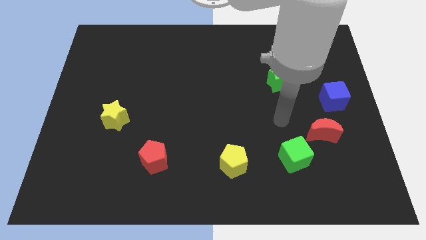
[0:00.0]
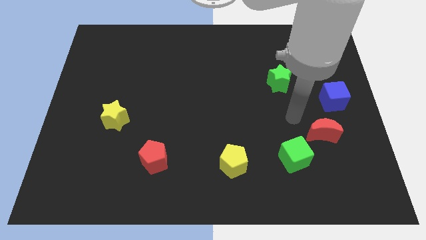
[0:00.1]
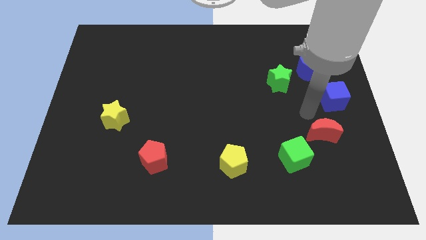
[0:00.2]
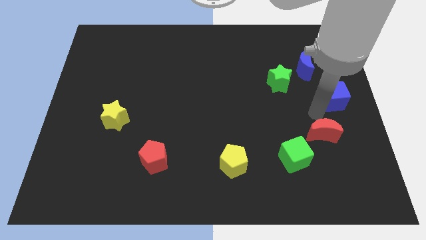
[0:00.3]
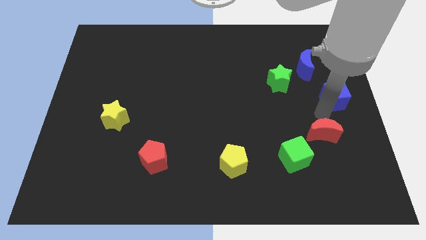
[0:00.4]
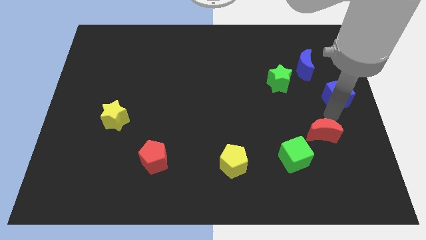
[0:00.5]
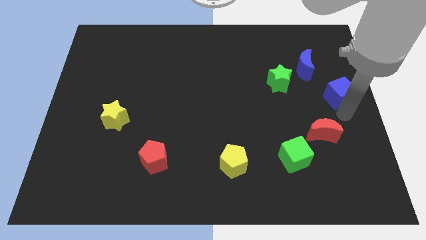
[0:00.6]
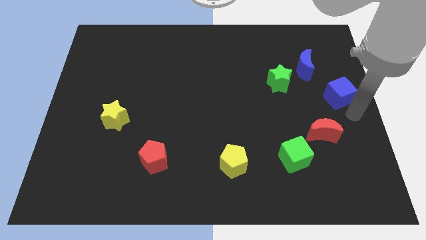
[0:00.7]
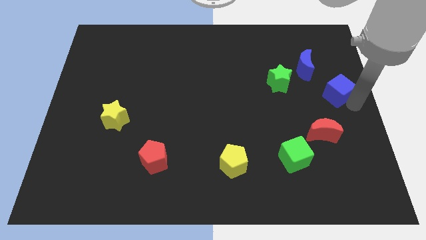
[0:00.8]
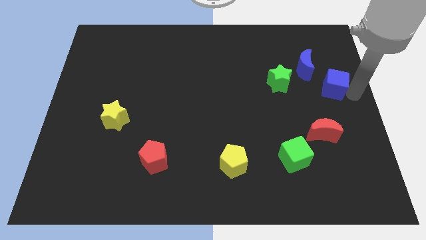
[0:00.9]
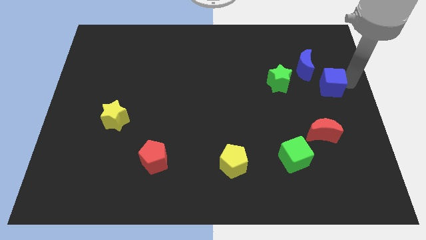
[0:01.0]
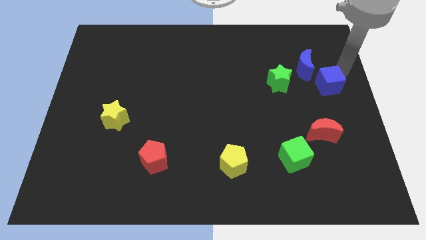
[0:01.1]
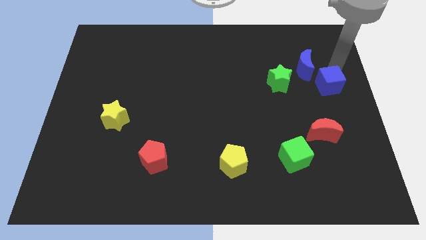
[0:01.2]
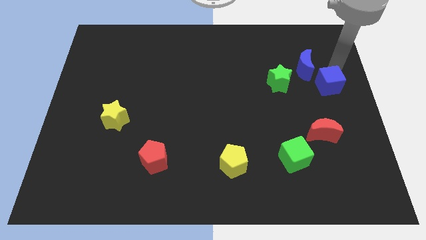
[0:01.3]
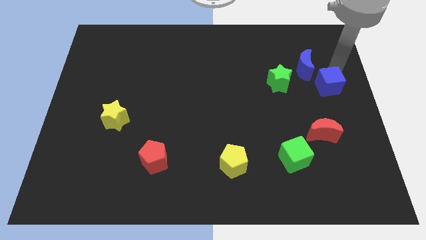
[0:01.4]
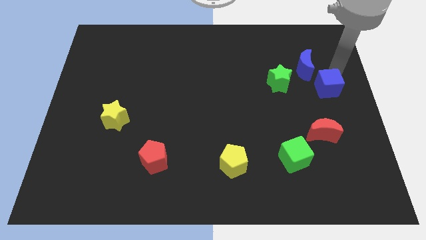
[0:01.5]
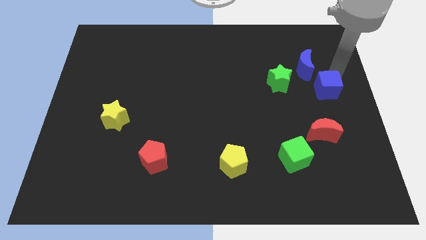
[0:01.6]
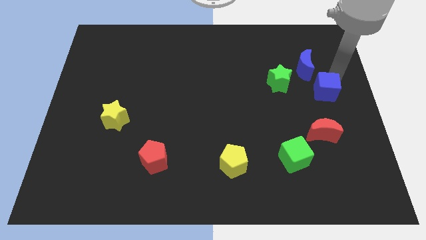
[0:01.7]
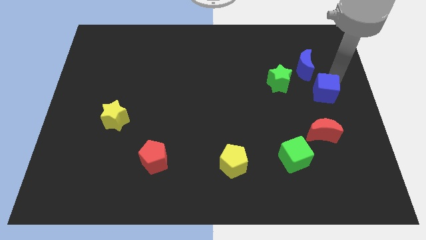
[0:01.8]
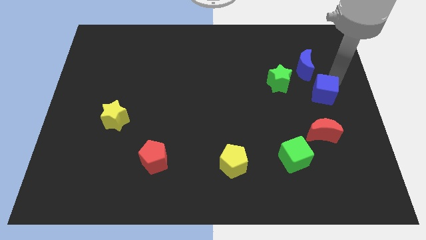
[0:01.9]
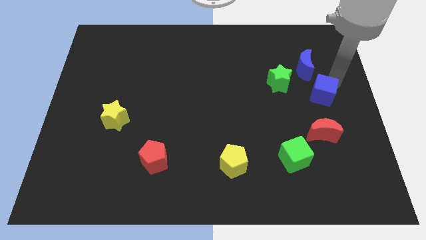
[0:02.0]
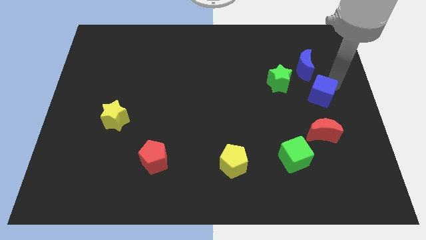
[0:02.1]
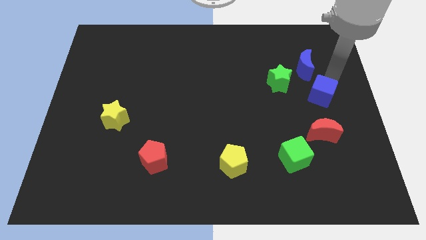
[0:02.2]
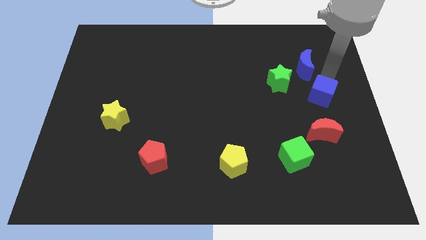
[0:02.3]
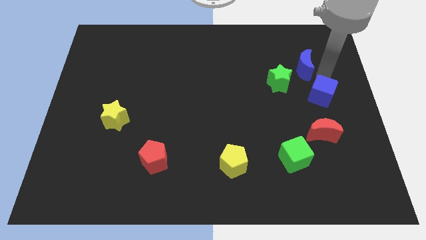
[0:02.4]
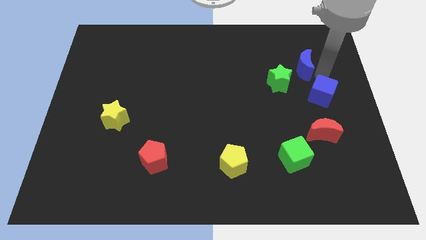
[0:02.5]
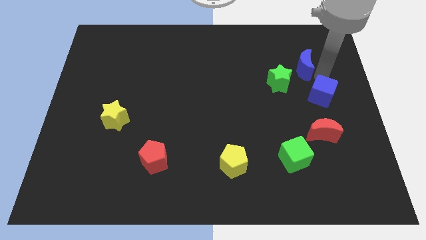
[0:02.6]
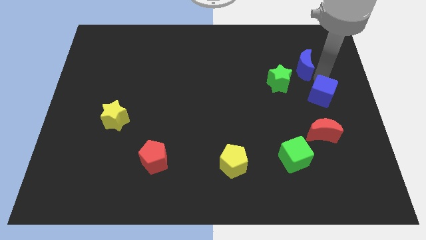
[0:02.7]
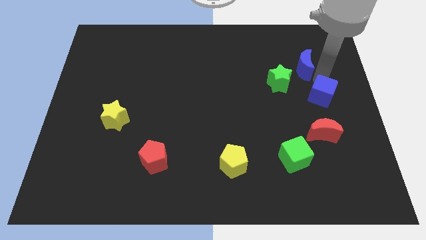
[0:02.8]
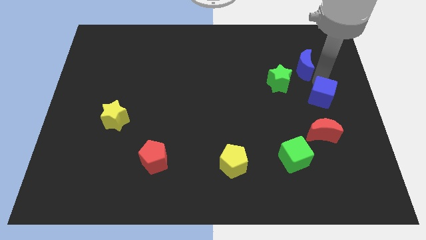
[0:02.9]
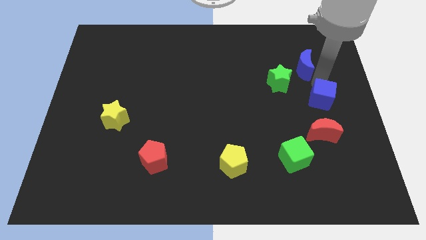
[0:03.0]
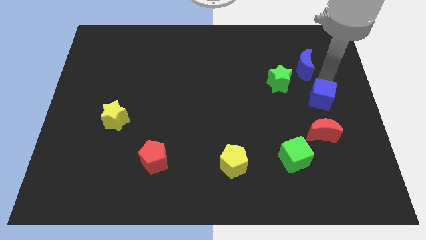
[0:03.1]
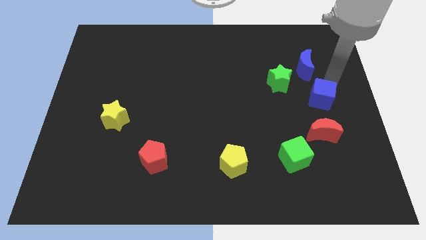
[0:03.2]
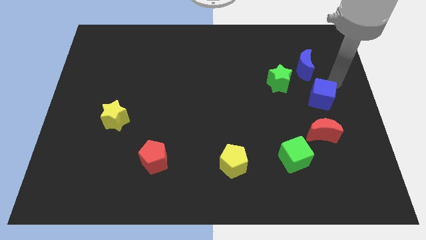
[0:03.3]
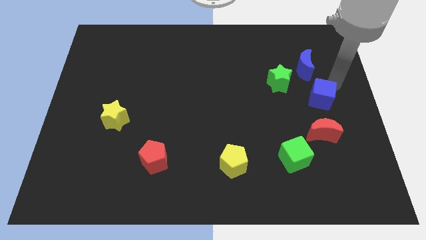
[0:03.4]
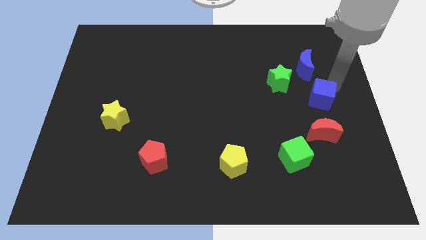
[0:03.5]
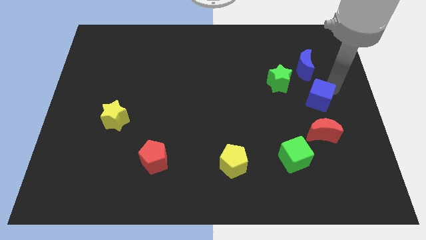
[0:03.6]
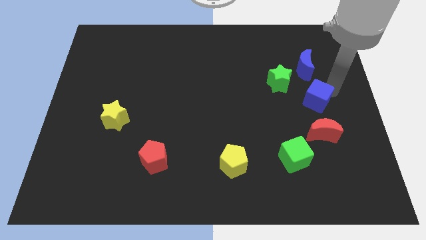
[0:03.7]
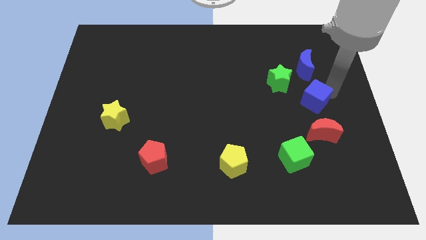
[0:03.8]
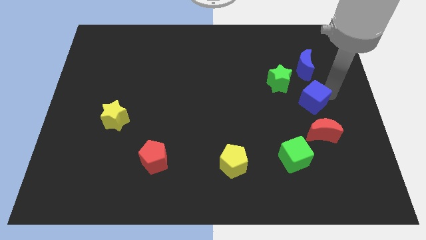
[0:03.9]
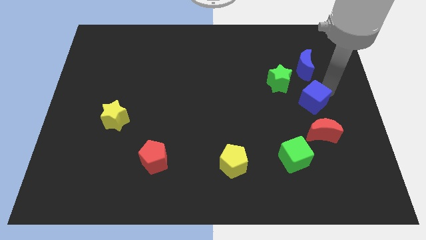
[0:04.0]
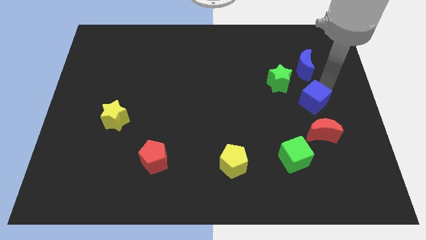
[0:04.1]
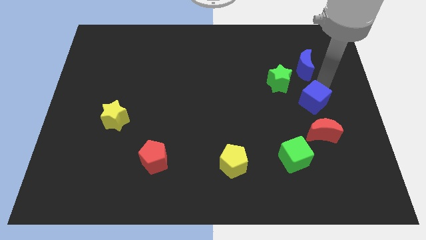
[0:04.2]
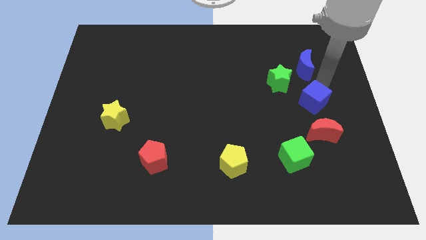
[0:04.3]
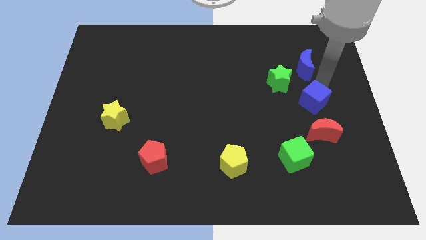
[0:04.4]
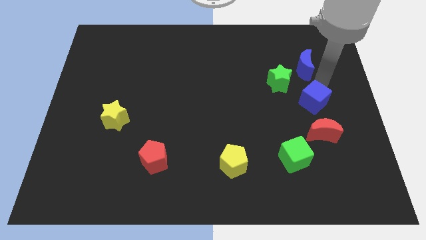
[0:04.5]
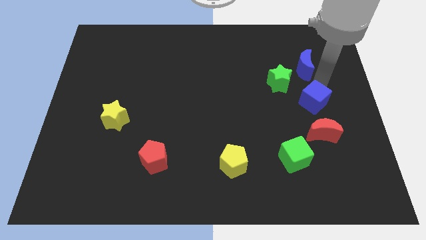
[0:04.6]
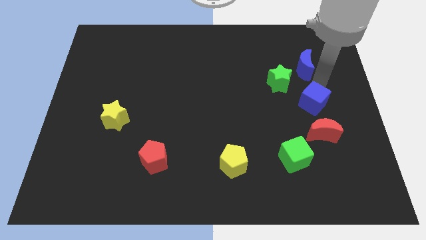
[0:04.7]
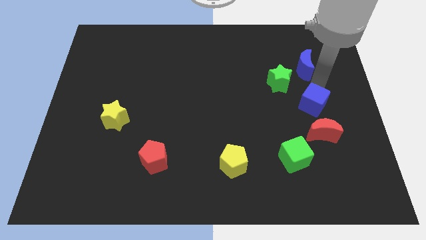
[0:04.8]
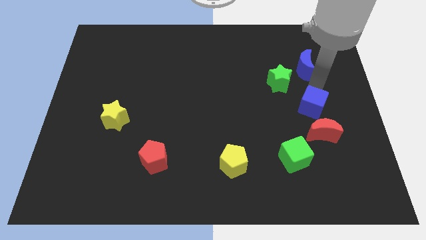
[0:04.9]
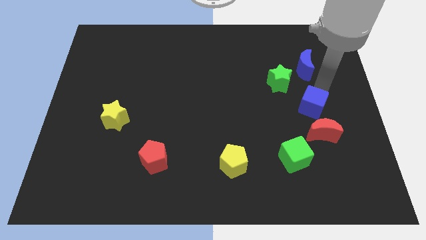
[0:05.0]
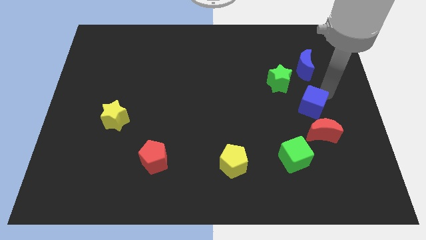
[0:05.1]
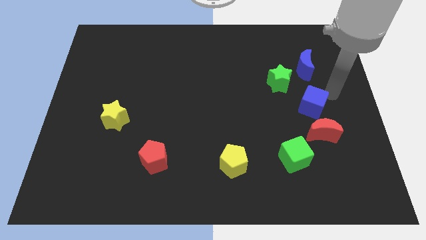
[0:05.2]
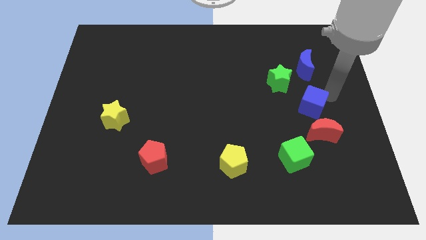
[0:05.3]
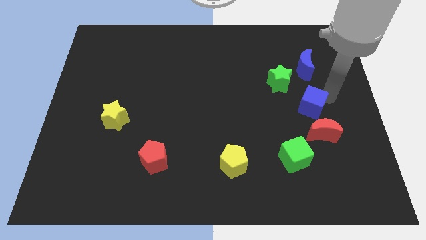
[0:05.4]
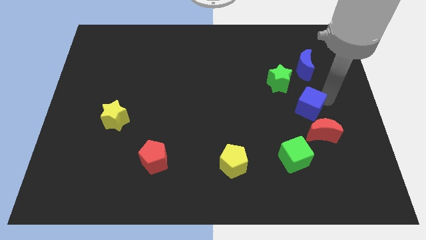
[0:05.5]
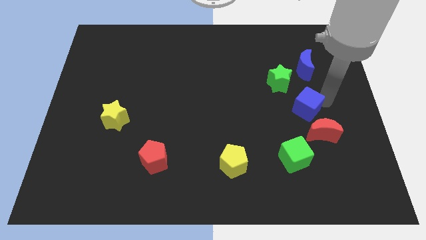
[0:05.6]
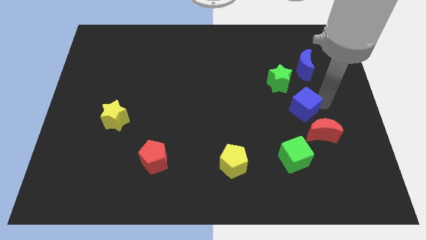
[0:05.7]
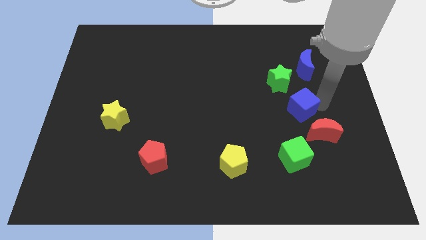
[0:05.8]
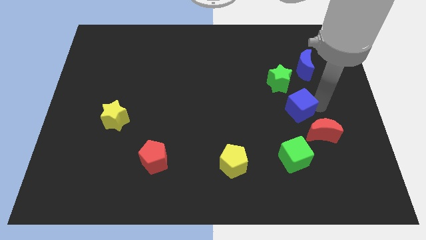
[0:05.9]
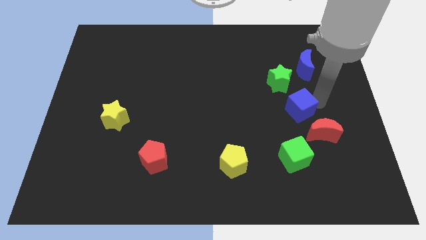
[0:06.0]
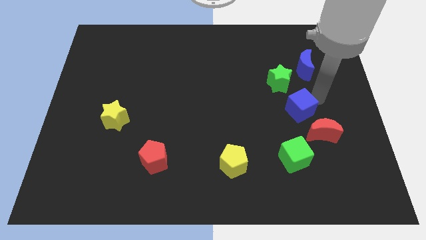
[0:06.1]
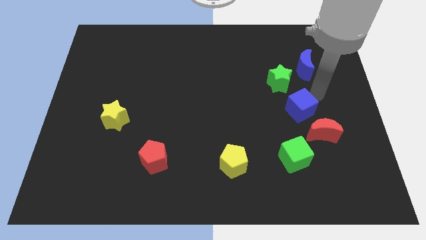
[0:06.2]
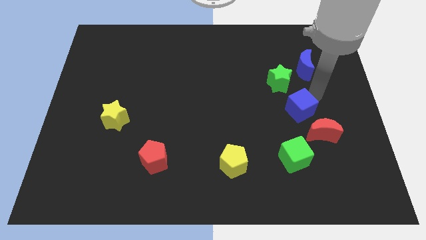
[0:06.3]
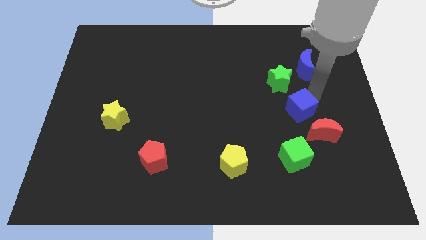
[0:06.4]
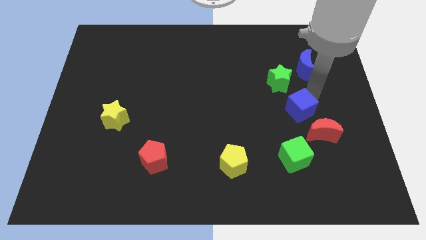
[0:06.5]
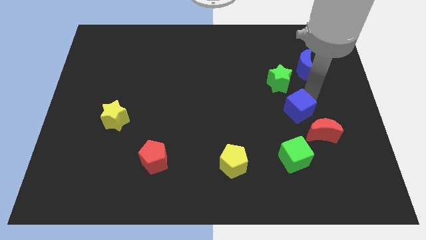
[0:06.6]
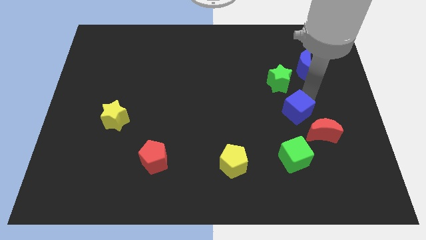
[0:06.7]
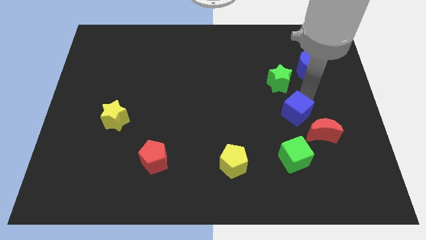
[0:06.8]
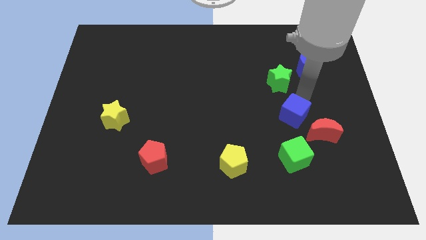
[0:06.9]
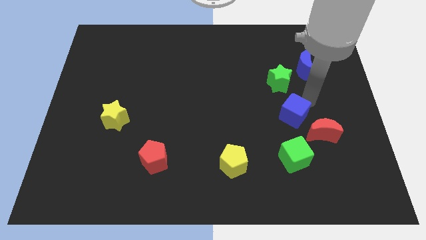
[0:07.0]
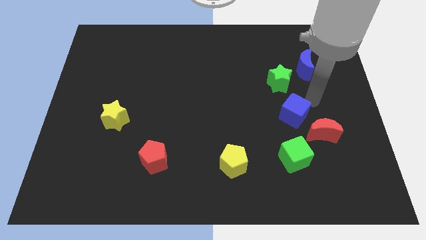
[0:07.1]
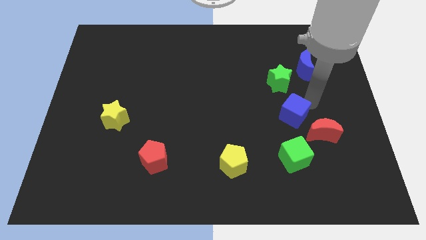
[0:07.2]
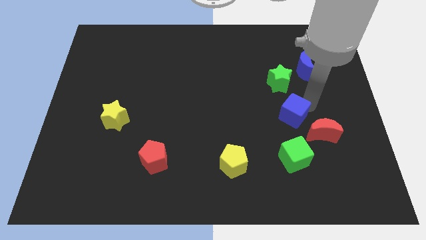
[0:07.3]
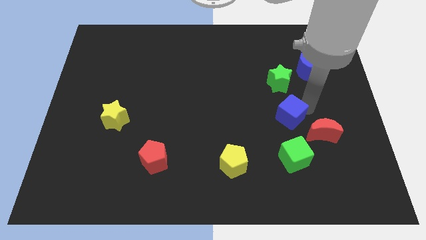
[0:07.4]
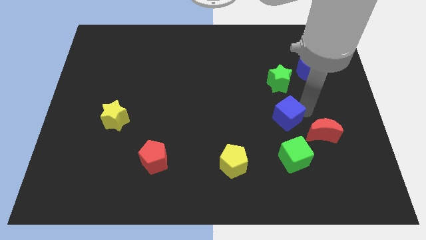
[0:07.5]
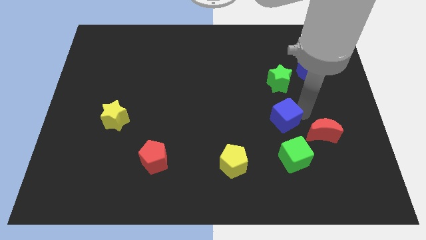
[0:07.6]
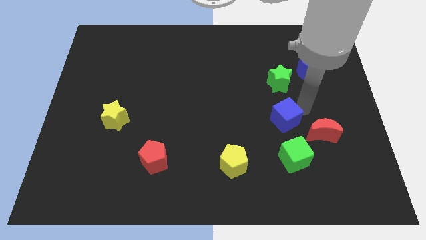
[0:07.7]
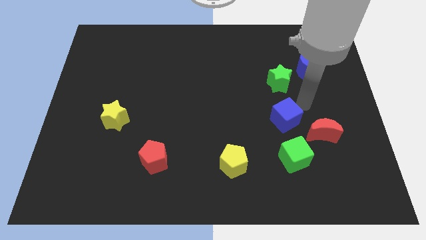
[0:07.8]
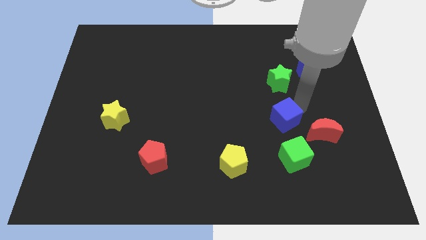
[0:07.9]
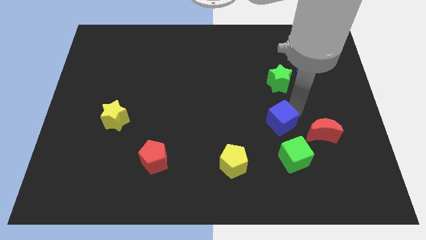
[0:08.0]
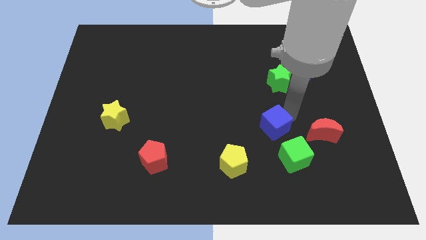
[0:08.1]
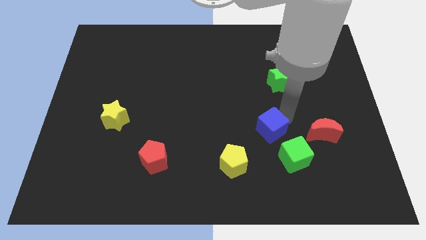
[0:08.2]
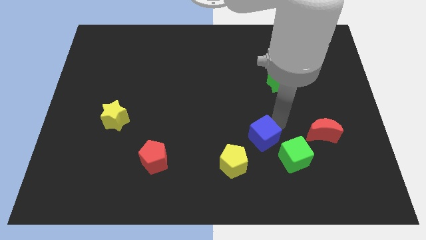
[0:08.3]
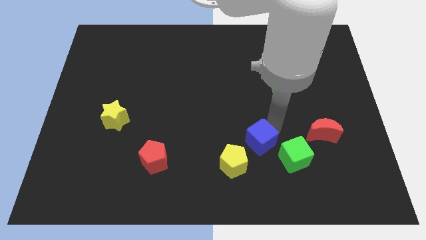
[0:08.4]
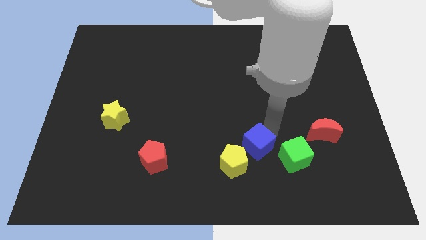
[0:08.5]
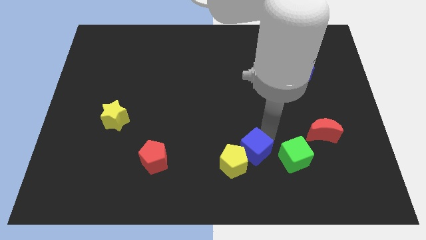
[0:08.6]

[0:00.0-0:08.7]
move the blue cube next to the yellow pentagon
